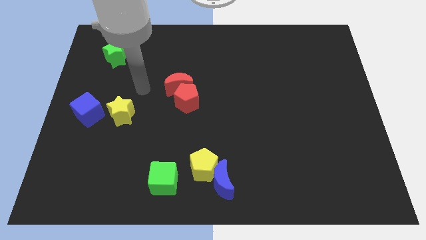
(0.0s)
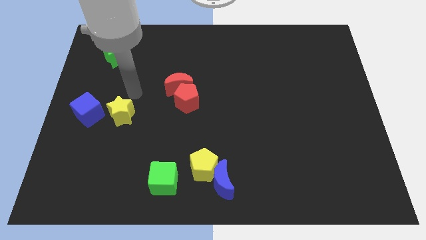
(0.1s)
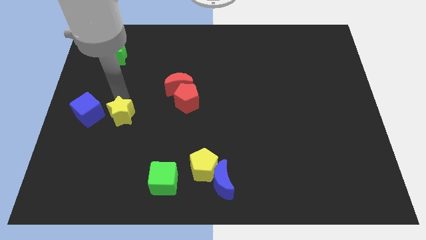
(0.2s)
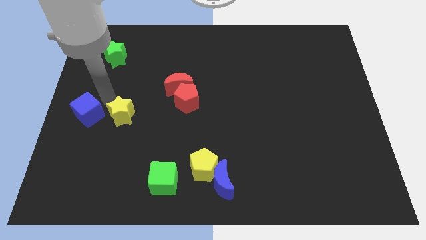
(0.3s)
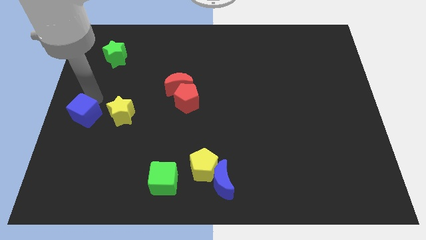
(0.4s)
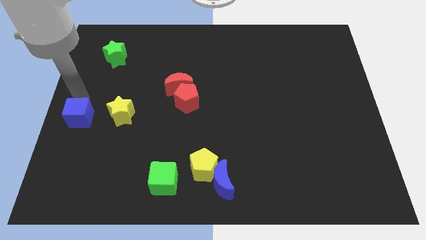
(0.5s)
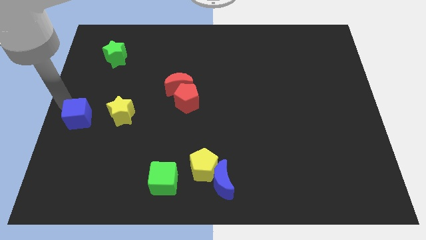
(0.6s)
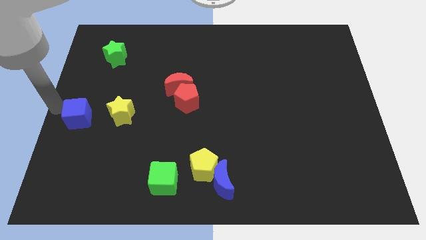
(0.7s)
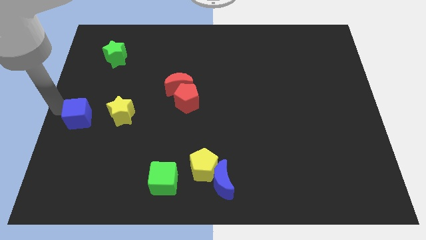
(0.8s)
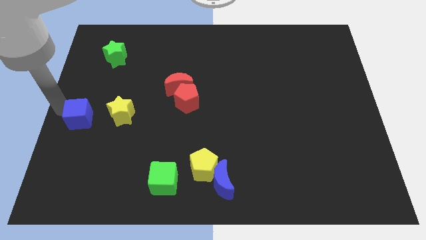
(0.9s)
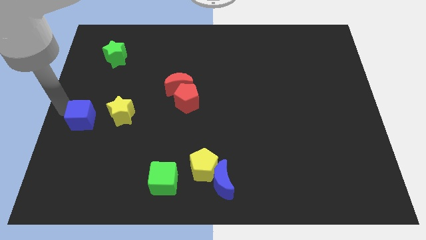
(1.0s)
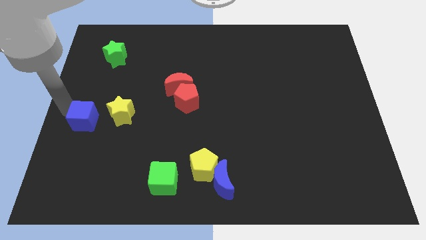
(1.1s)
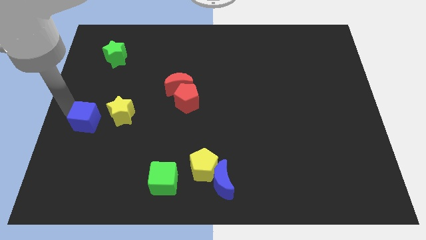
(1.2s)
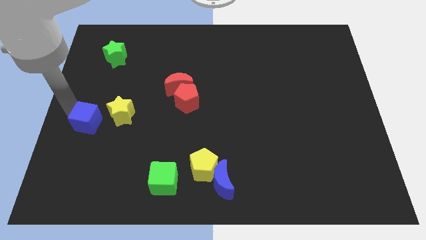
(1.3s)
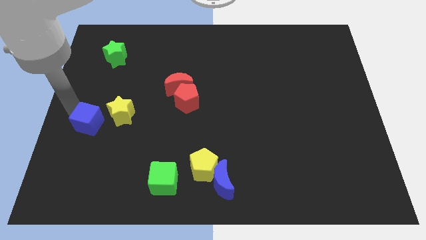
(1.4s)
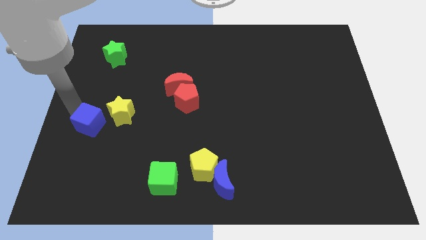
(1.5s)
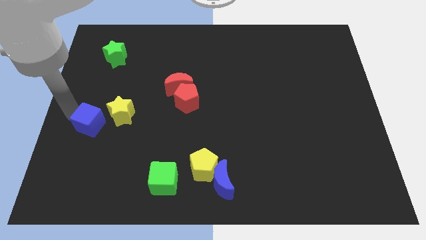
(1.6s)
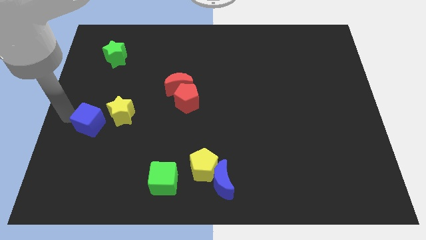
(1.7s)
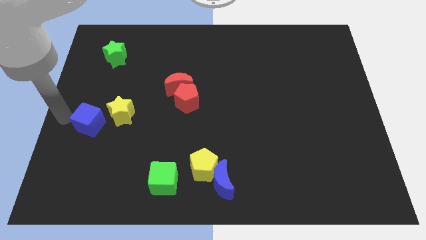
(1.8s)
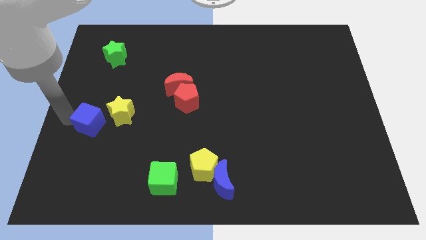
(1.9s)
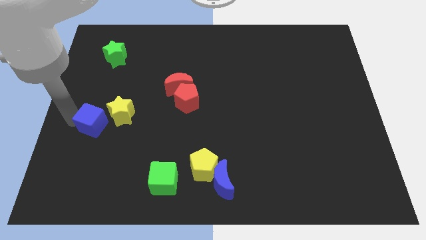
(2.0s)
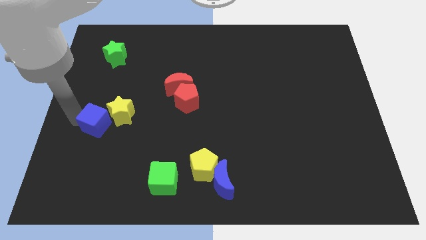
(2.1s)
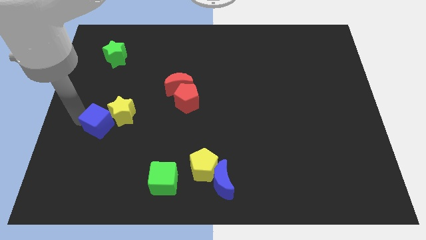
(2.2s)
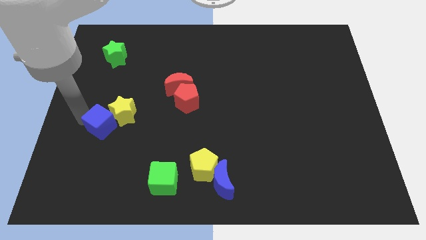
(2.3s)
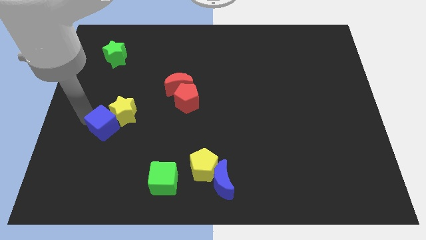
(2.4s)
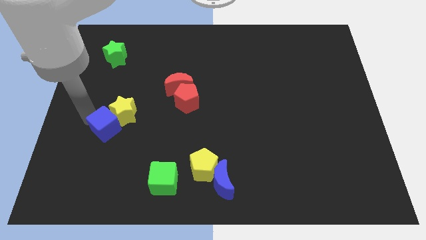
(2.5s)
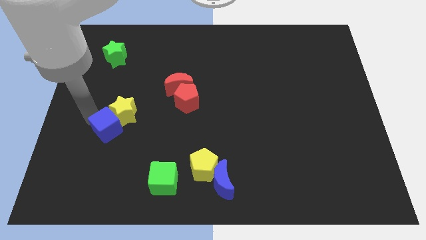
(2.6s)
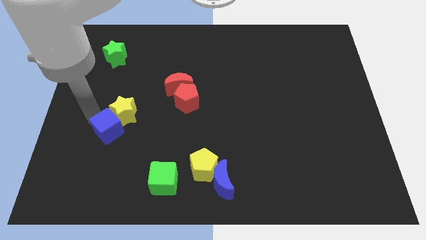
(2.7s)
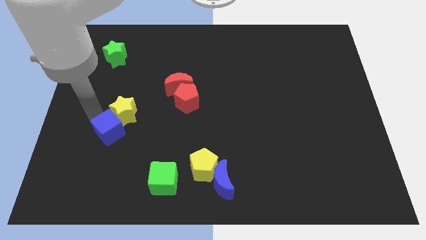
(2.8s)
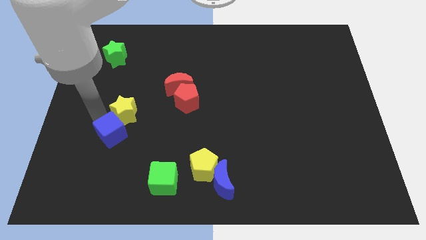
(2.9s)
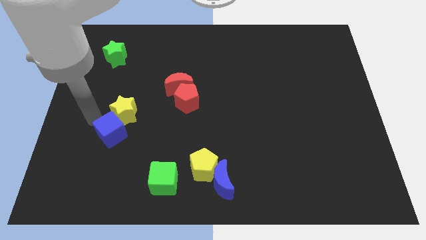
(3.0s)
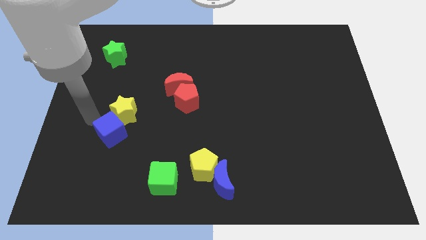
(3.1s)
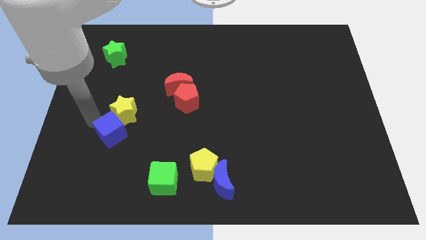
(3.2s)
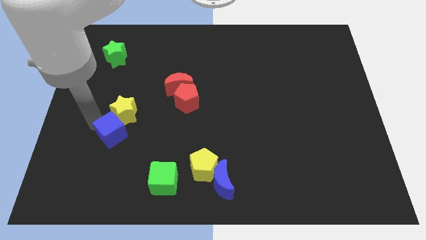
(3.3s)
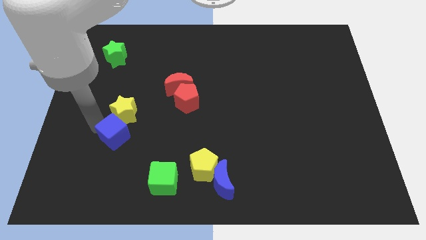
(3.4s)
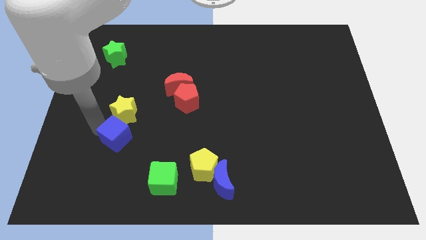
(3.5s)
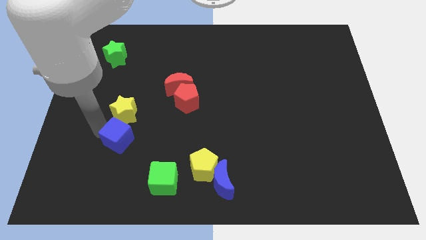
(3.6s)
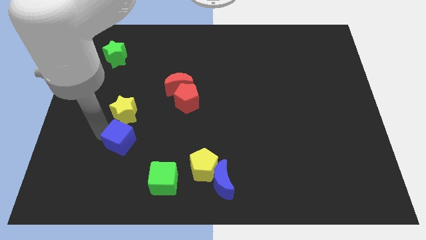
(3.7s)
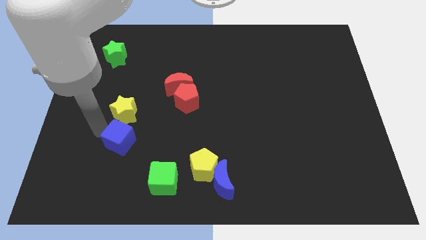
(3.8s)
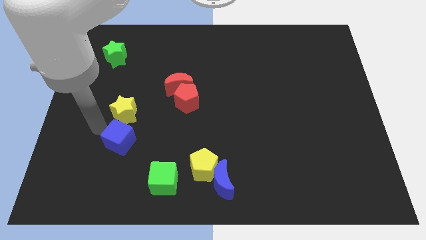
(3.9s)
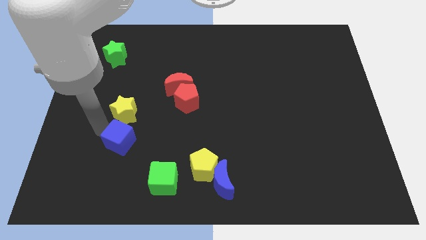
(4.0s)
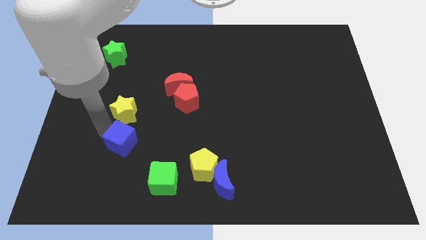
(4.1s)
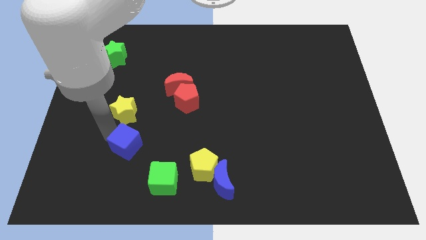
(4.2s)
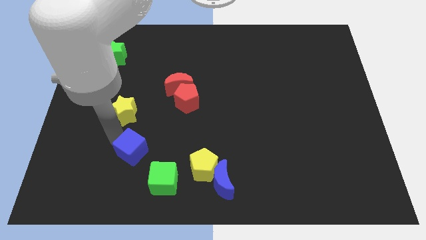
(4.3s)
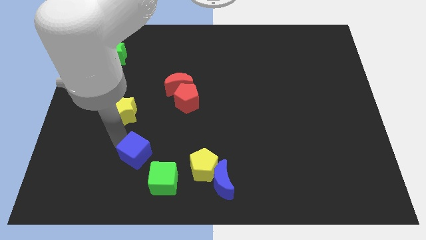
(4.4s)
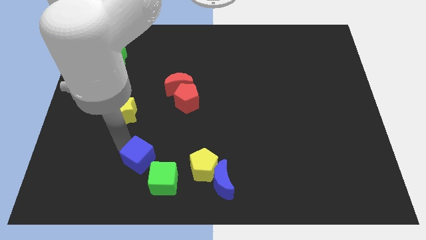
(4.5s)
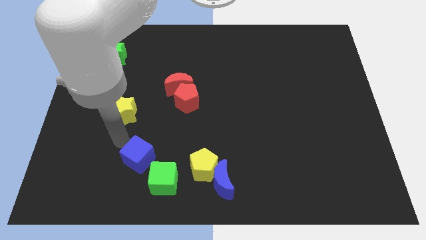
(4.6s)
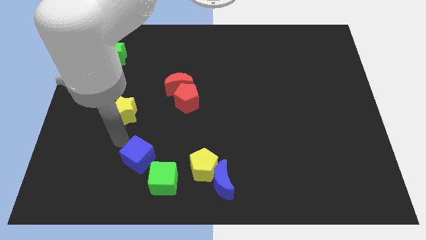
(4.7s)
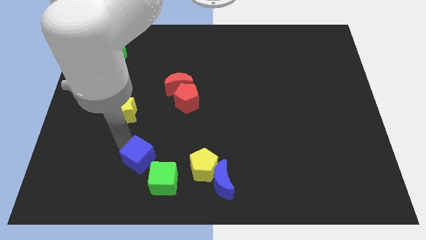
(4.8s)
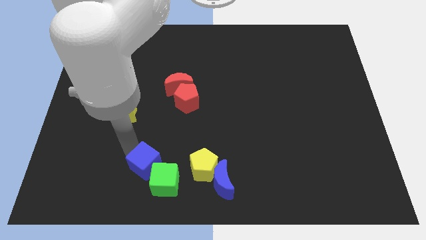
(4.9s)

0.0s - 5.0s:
slide the blue cube to the green cube

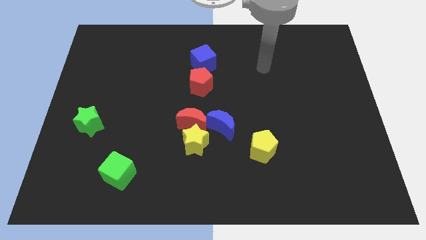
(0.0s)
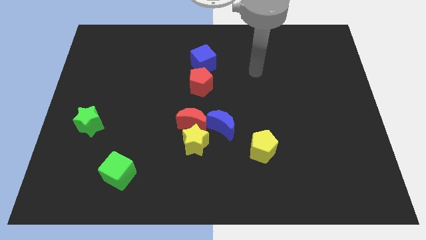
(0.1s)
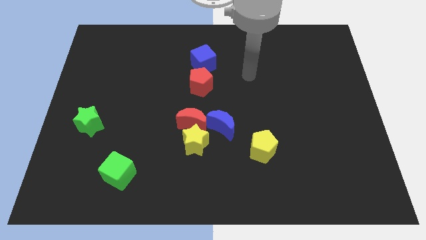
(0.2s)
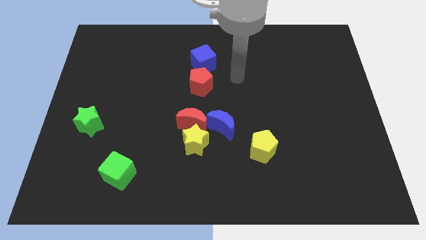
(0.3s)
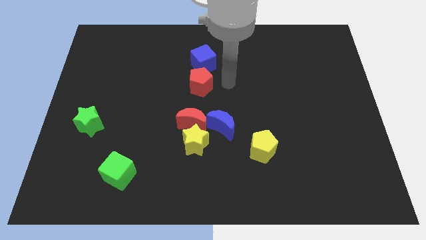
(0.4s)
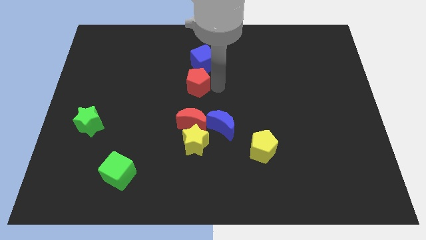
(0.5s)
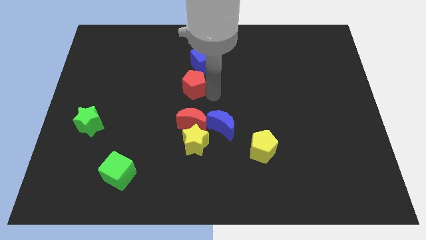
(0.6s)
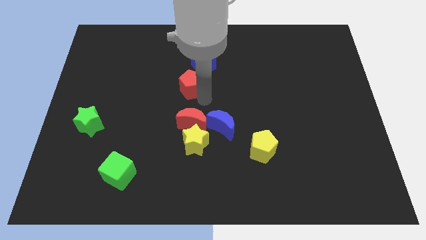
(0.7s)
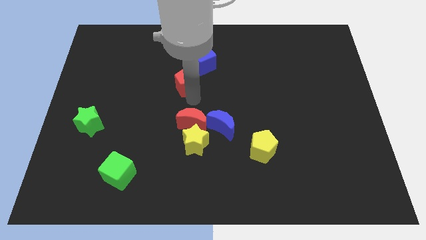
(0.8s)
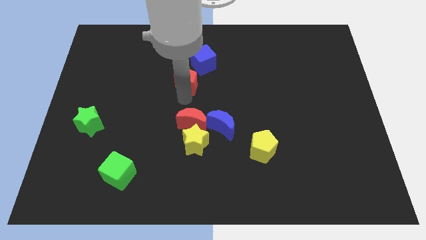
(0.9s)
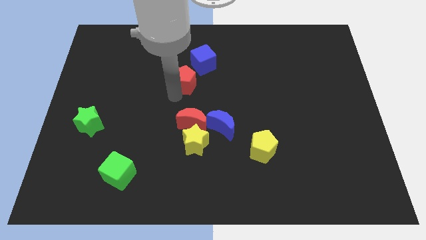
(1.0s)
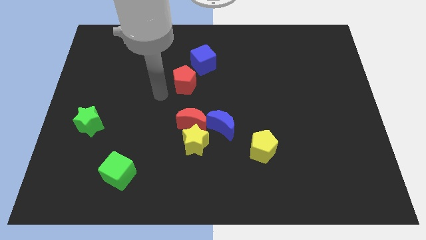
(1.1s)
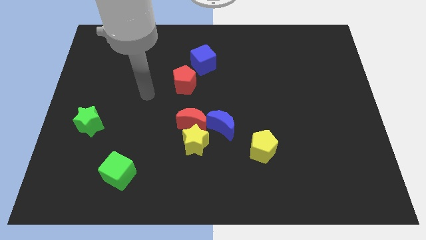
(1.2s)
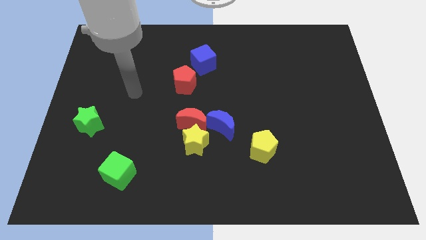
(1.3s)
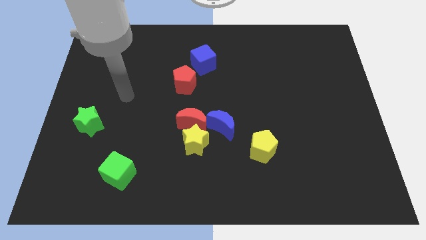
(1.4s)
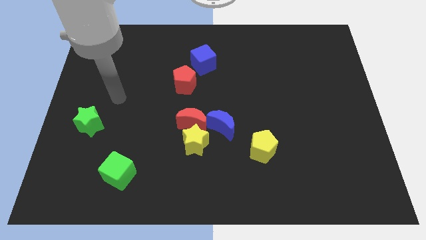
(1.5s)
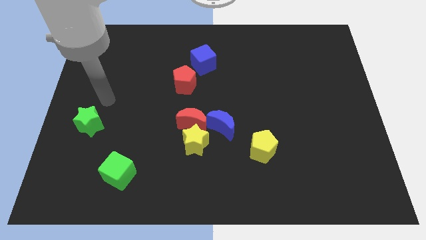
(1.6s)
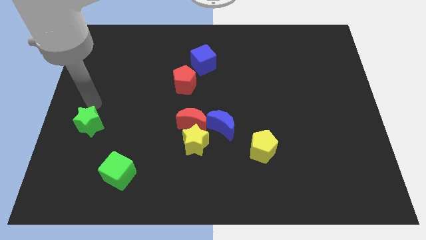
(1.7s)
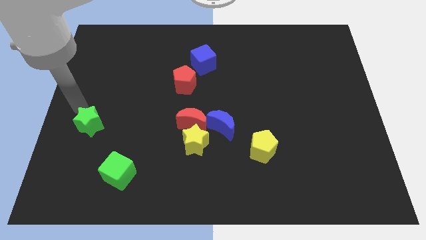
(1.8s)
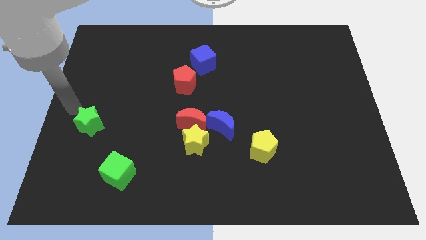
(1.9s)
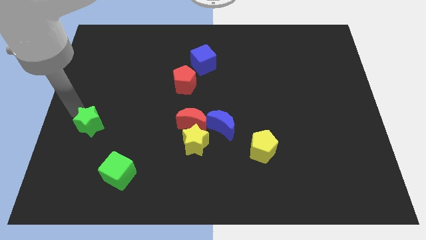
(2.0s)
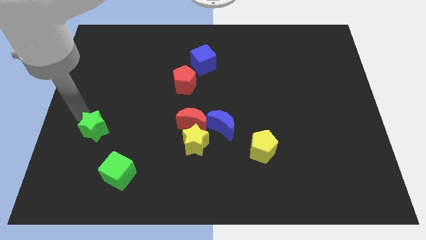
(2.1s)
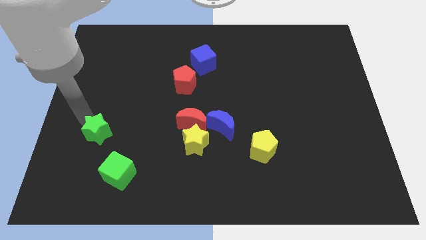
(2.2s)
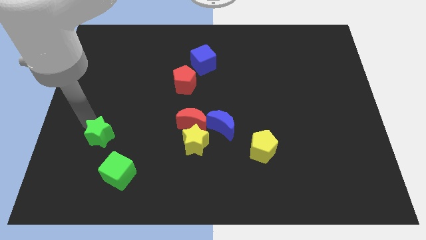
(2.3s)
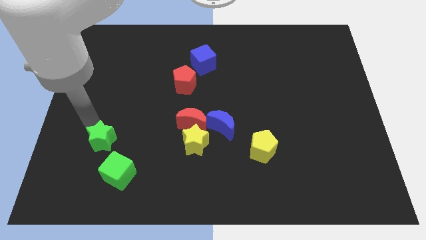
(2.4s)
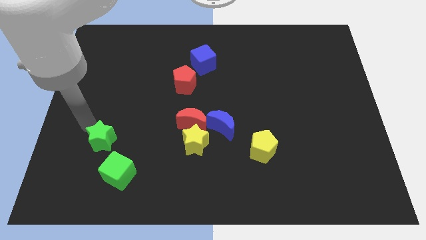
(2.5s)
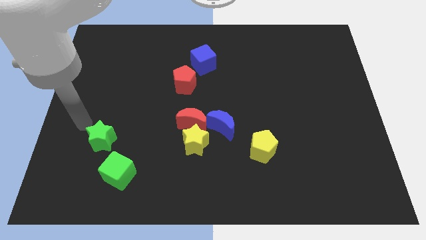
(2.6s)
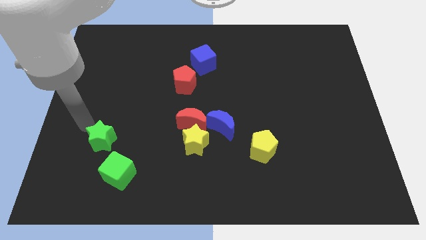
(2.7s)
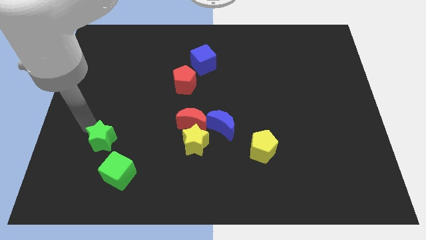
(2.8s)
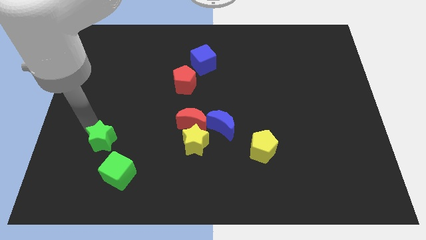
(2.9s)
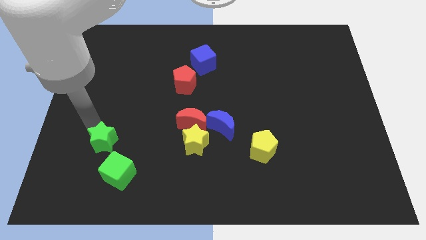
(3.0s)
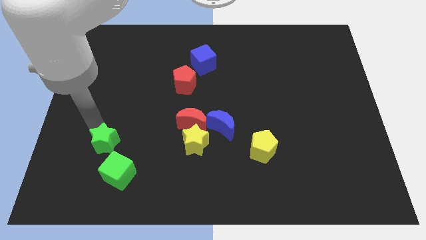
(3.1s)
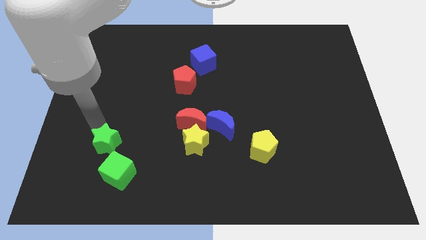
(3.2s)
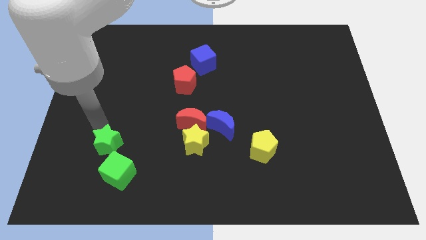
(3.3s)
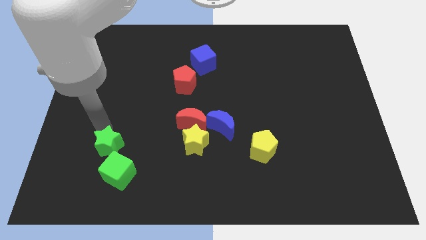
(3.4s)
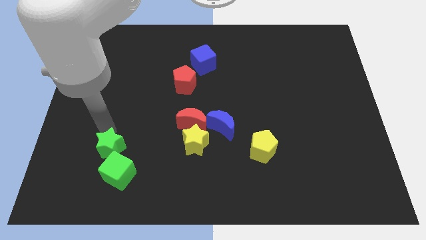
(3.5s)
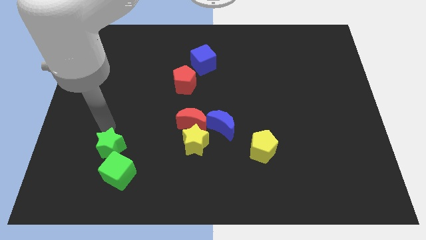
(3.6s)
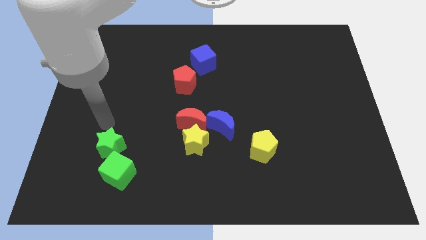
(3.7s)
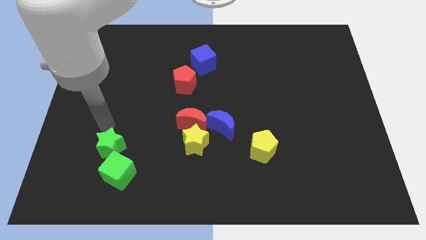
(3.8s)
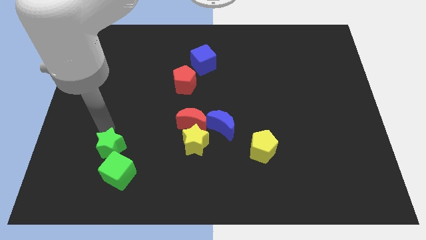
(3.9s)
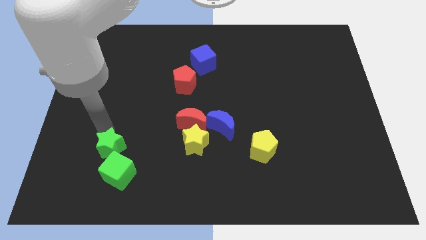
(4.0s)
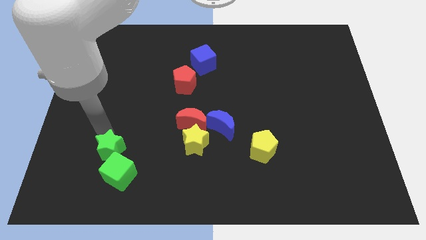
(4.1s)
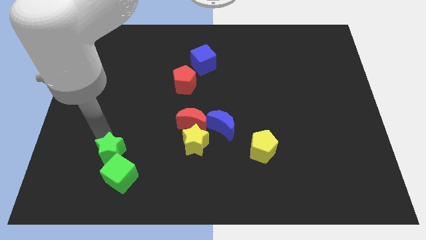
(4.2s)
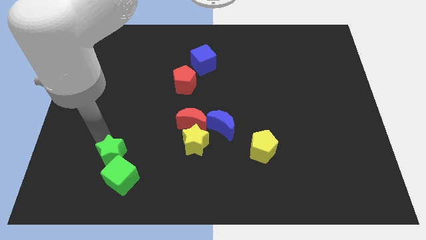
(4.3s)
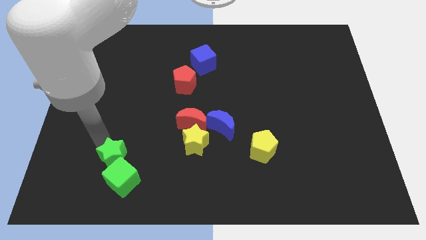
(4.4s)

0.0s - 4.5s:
slide the green star towards the green cube
